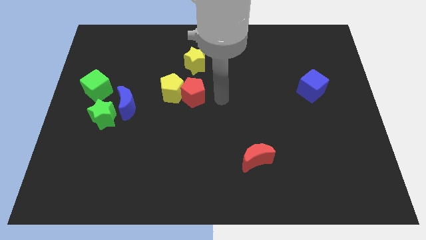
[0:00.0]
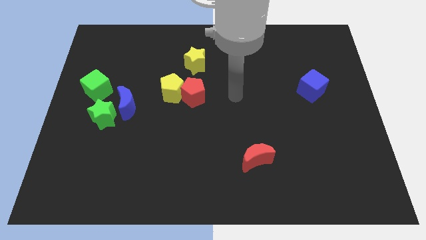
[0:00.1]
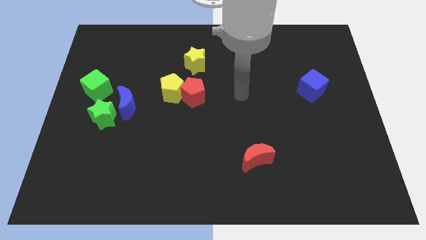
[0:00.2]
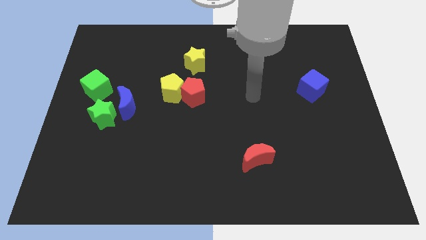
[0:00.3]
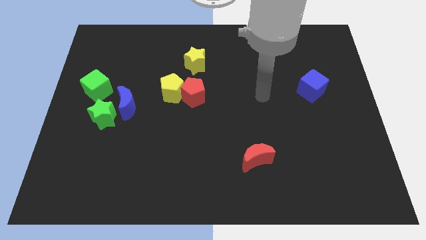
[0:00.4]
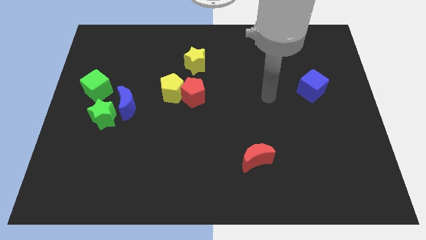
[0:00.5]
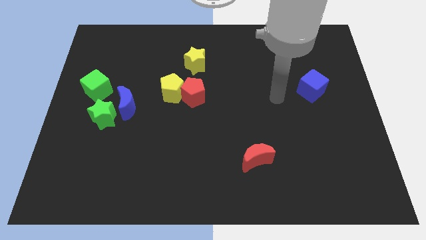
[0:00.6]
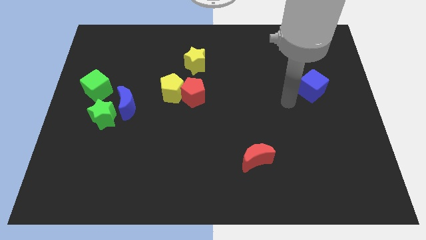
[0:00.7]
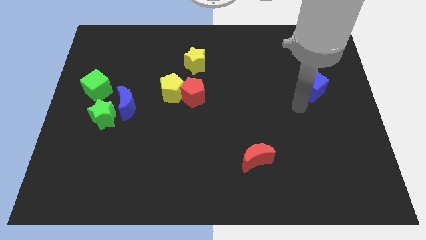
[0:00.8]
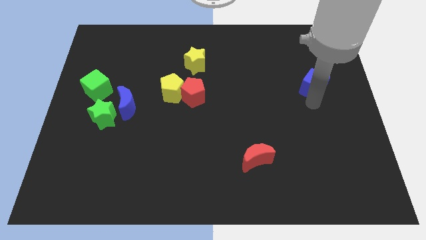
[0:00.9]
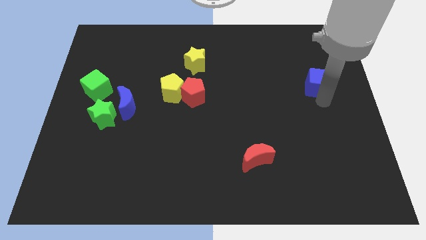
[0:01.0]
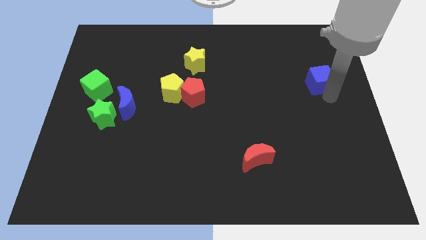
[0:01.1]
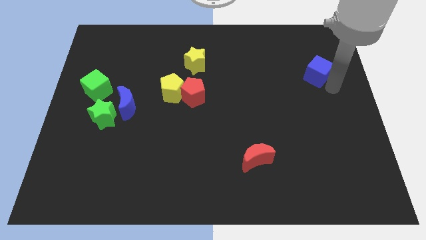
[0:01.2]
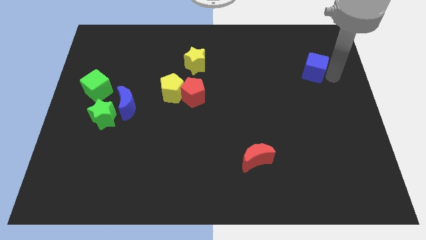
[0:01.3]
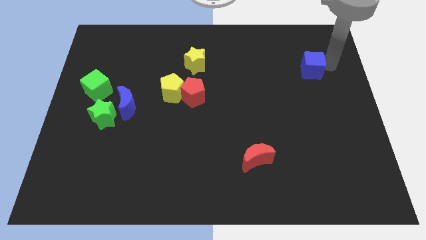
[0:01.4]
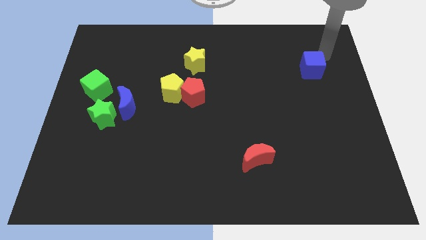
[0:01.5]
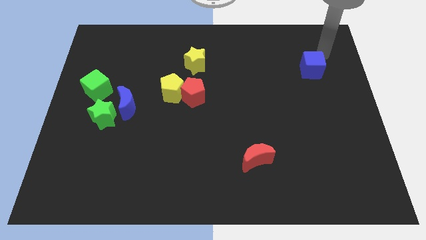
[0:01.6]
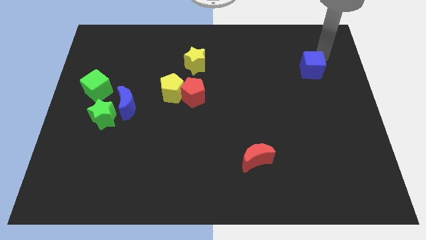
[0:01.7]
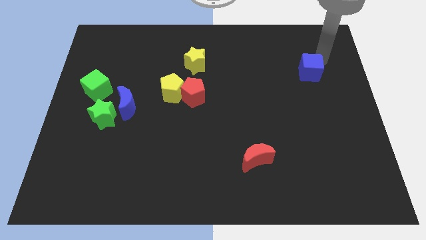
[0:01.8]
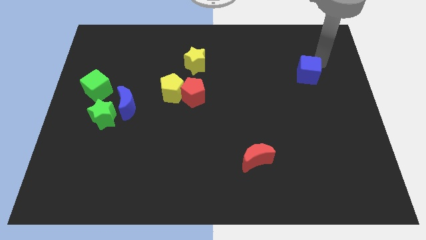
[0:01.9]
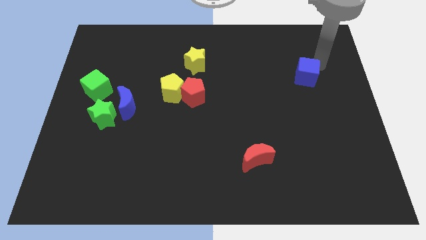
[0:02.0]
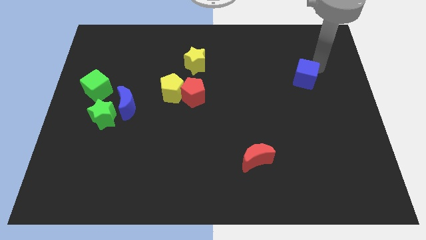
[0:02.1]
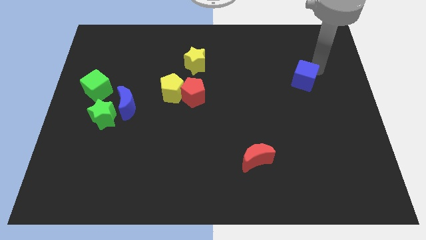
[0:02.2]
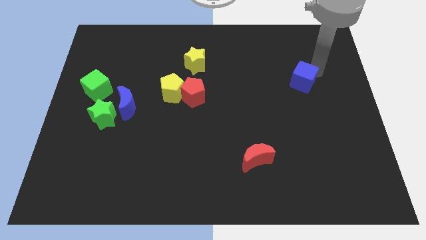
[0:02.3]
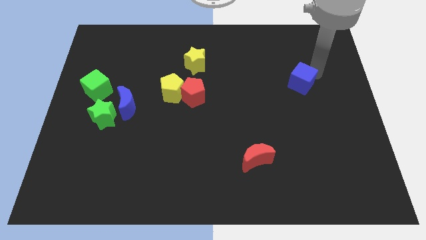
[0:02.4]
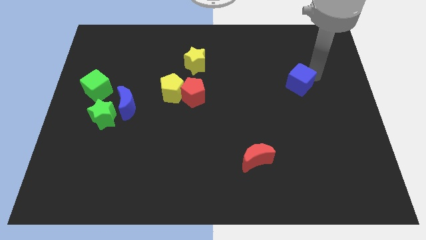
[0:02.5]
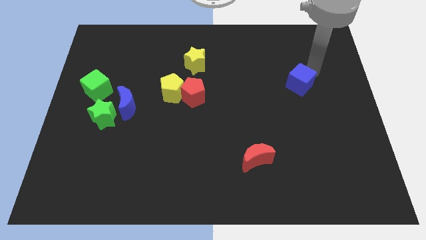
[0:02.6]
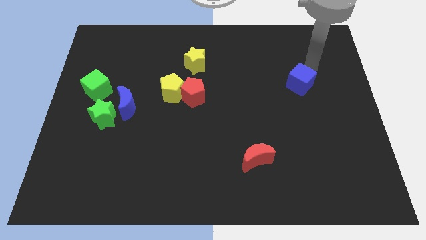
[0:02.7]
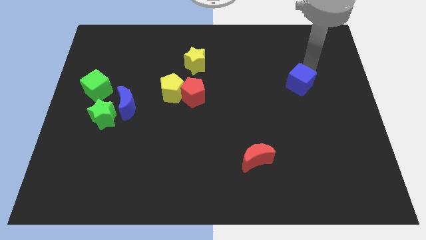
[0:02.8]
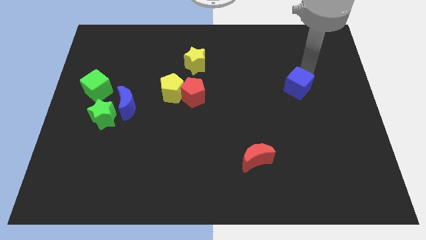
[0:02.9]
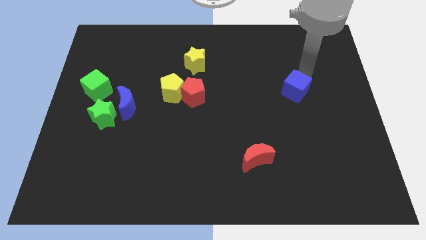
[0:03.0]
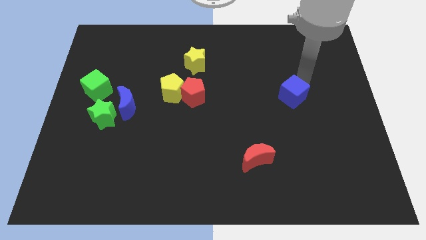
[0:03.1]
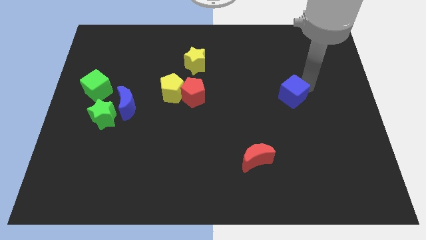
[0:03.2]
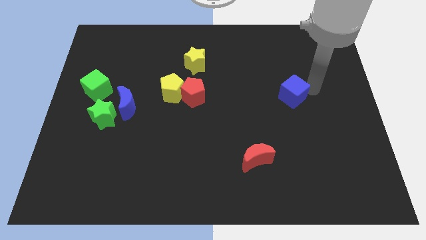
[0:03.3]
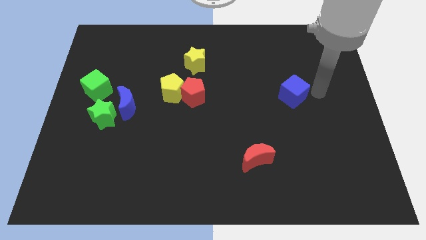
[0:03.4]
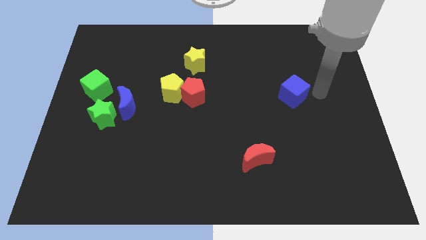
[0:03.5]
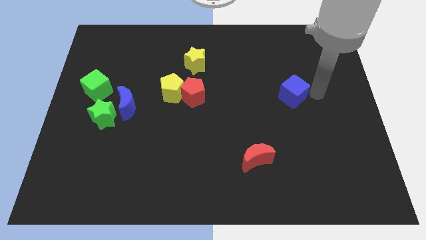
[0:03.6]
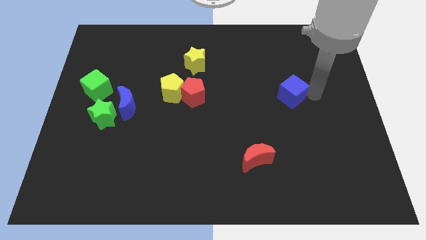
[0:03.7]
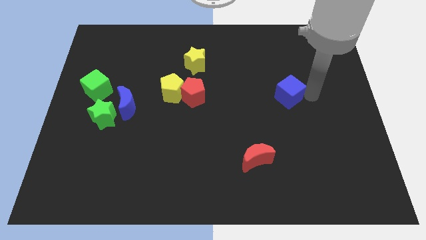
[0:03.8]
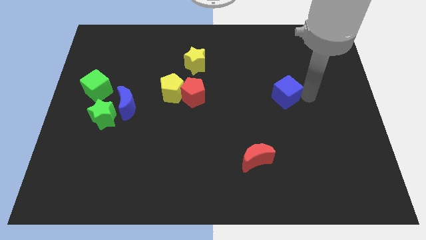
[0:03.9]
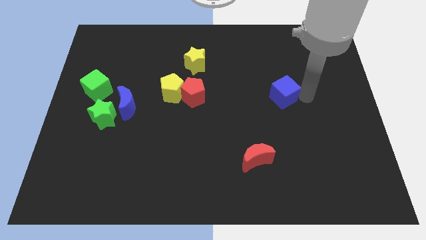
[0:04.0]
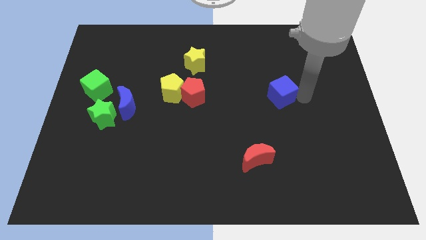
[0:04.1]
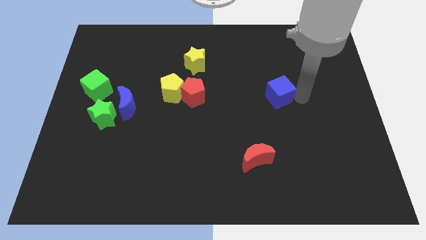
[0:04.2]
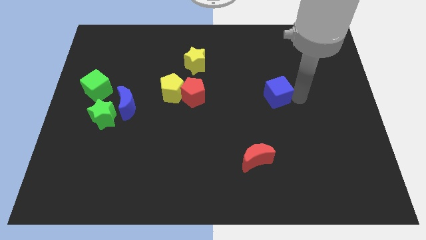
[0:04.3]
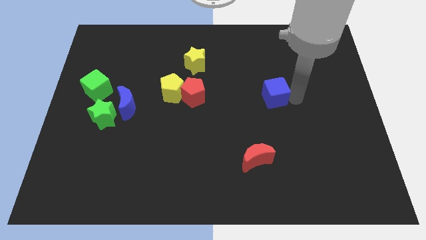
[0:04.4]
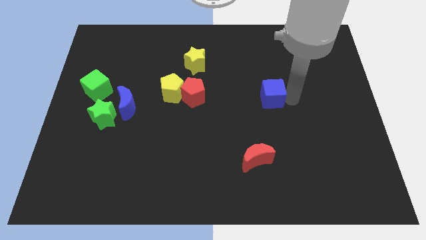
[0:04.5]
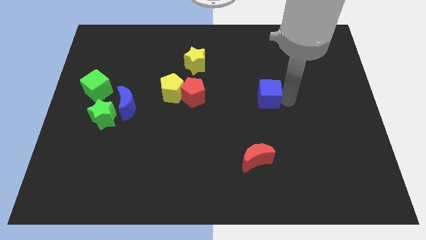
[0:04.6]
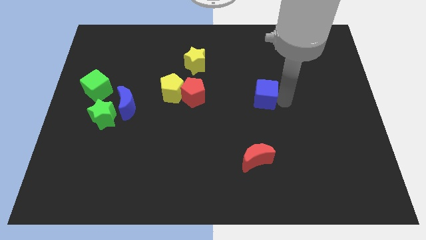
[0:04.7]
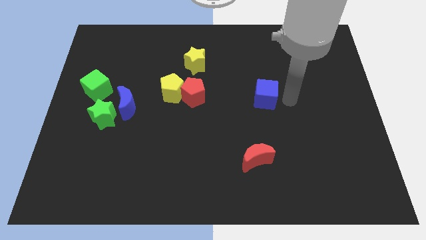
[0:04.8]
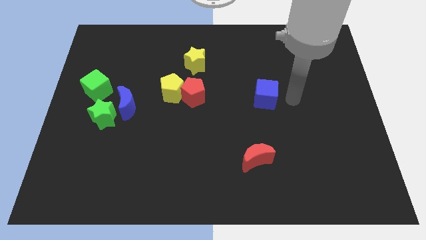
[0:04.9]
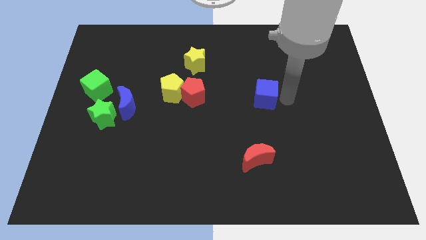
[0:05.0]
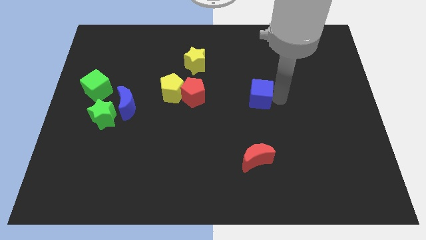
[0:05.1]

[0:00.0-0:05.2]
put the blue cube just right of the red pentagon

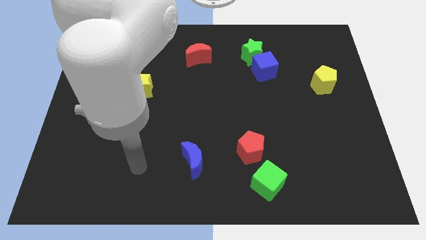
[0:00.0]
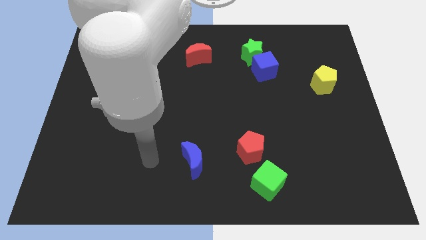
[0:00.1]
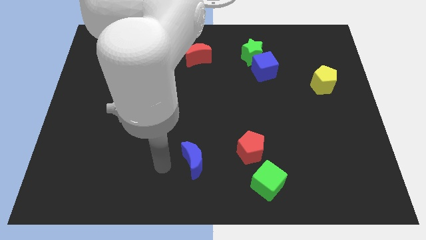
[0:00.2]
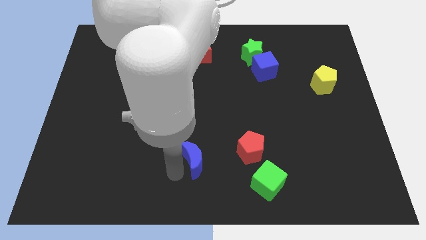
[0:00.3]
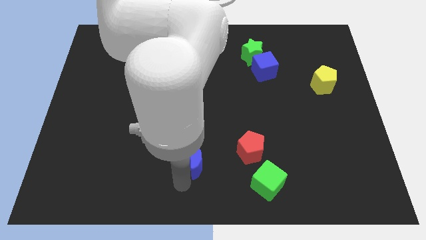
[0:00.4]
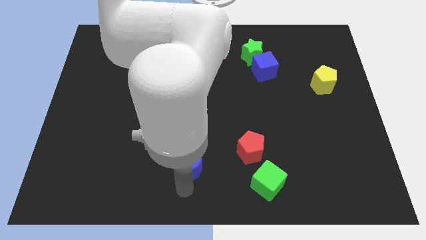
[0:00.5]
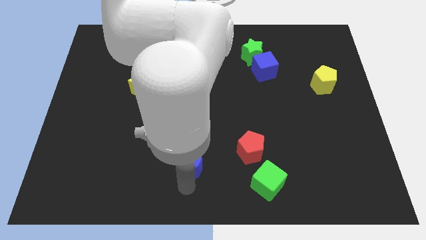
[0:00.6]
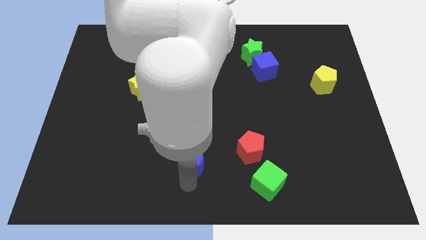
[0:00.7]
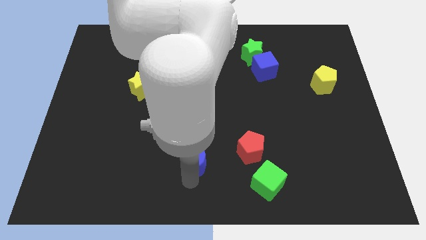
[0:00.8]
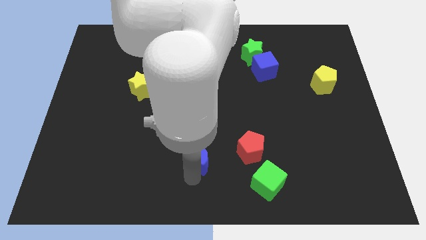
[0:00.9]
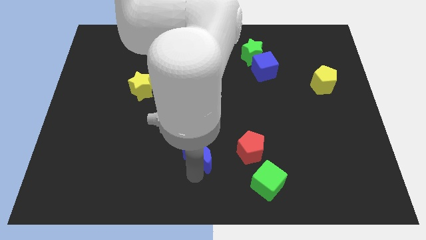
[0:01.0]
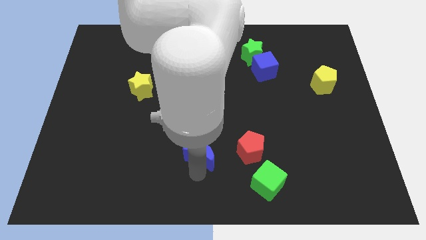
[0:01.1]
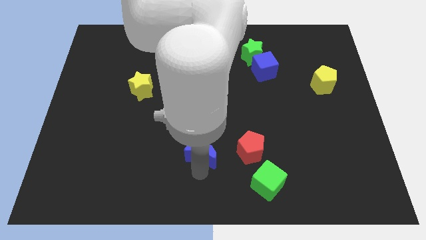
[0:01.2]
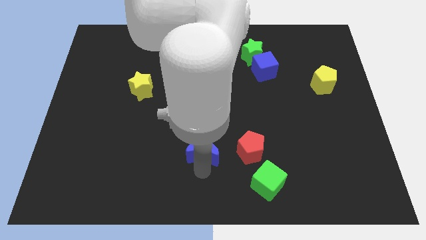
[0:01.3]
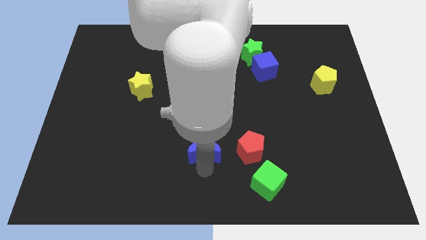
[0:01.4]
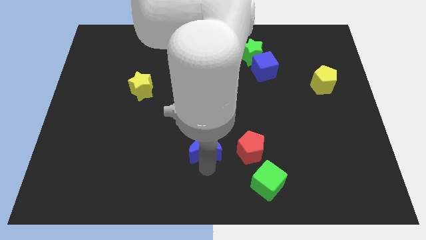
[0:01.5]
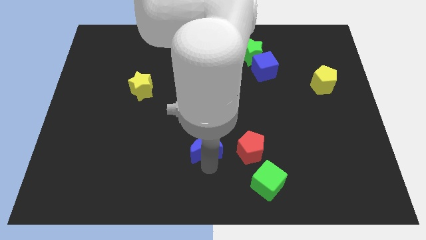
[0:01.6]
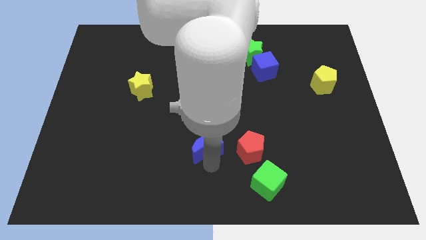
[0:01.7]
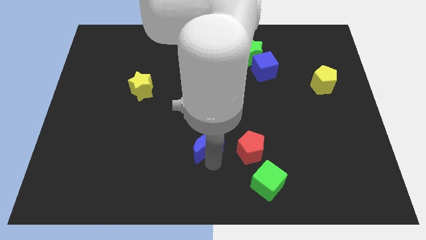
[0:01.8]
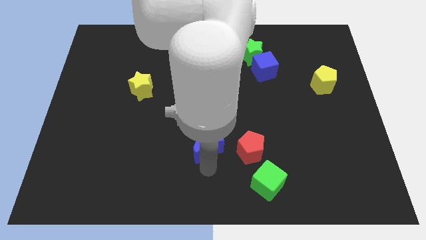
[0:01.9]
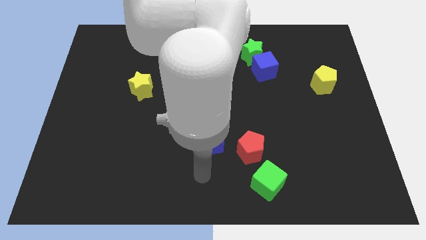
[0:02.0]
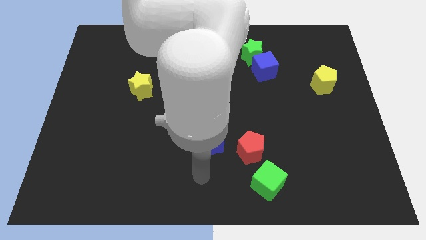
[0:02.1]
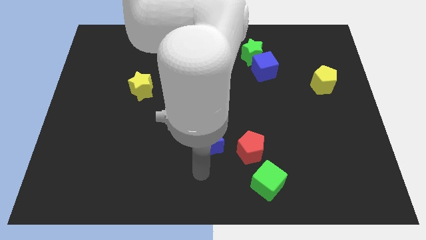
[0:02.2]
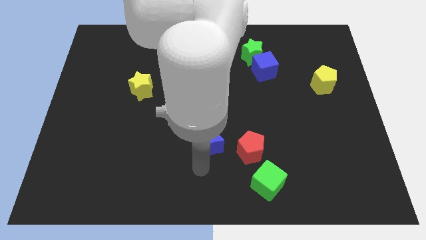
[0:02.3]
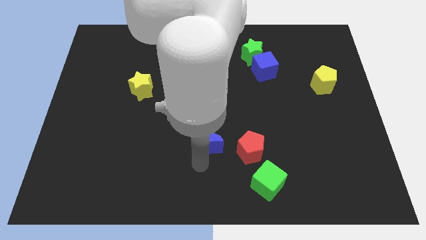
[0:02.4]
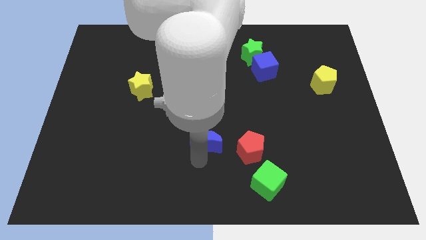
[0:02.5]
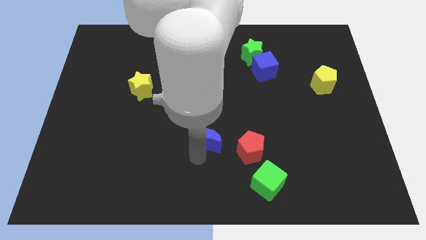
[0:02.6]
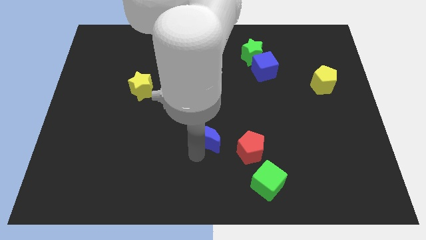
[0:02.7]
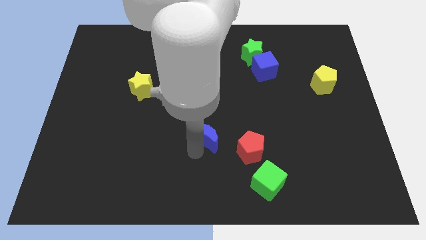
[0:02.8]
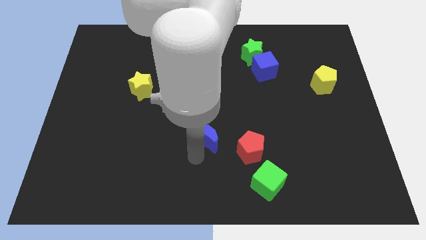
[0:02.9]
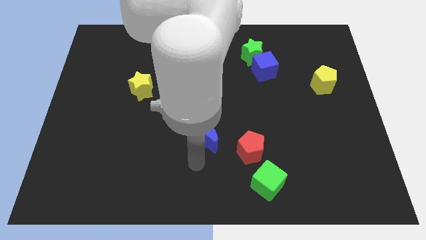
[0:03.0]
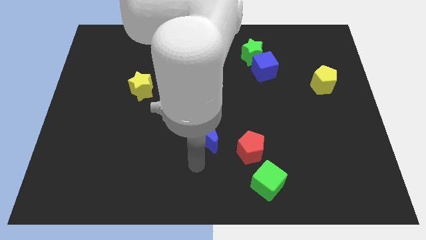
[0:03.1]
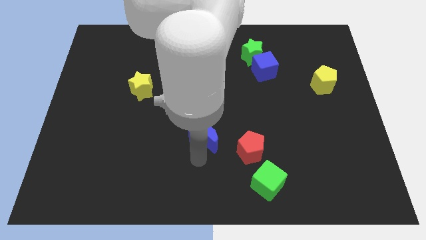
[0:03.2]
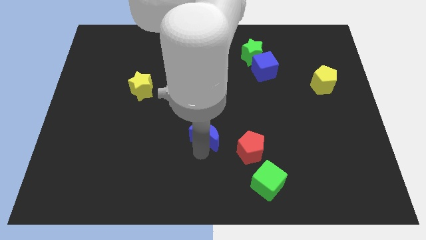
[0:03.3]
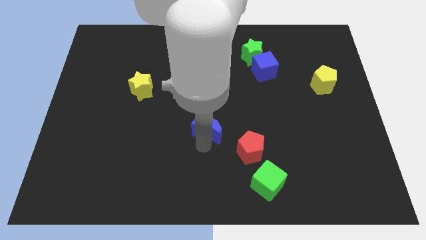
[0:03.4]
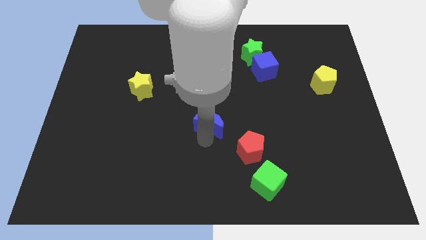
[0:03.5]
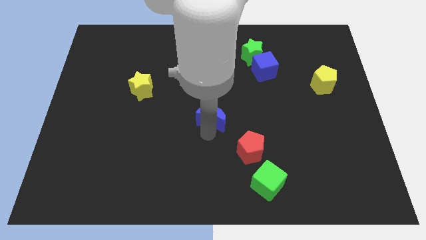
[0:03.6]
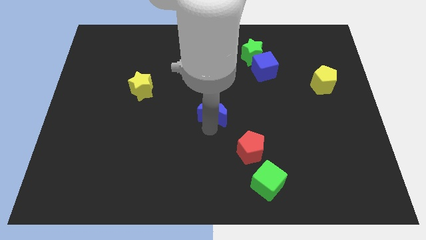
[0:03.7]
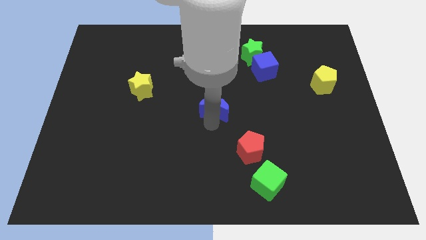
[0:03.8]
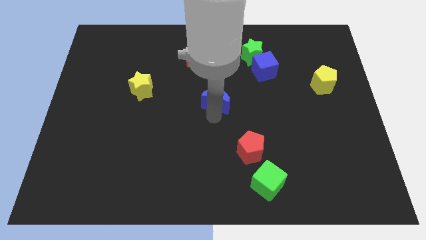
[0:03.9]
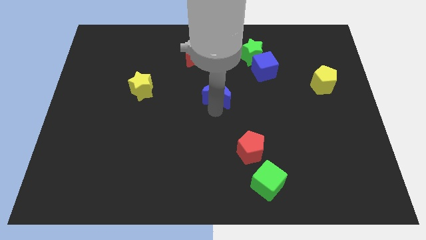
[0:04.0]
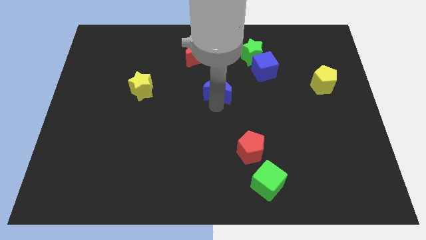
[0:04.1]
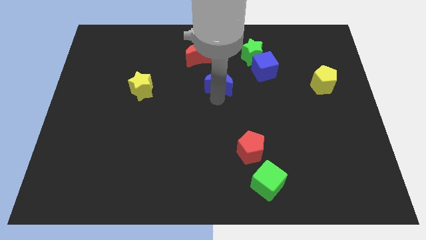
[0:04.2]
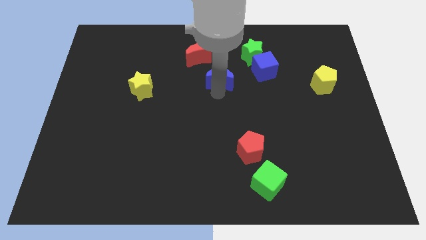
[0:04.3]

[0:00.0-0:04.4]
push the blue moon to the left side of the blue cube
